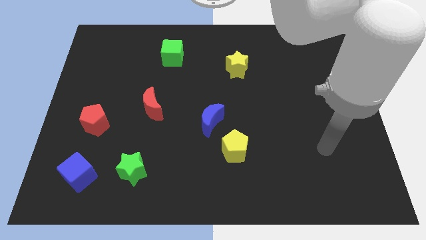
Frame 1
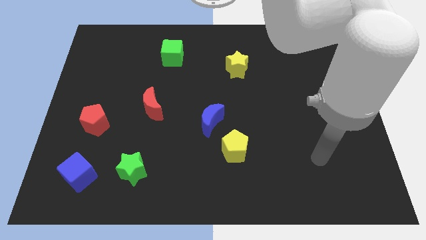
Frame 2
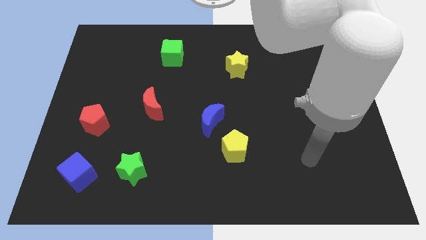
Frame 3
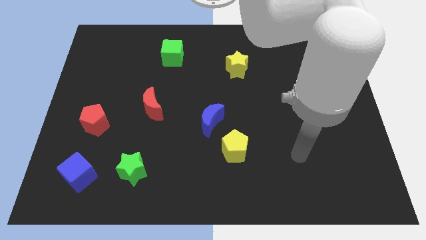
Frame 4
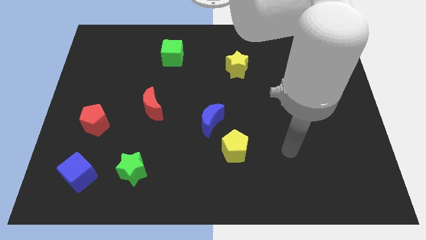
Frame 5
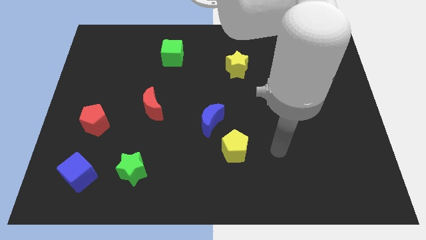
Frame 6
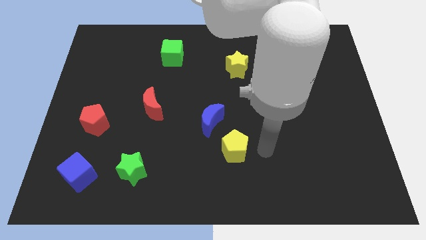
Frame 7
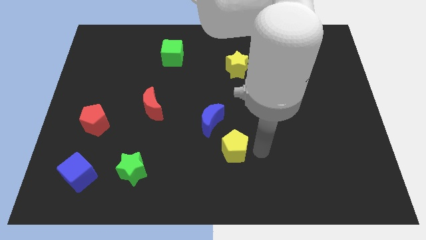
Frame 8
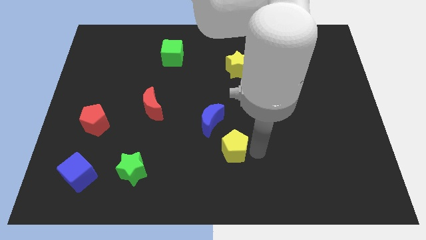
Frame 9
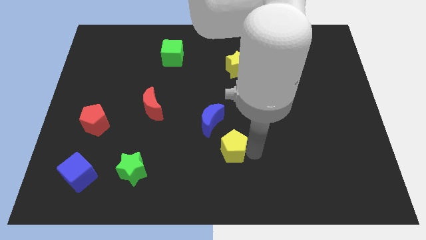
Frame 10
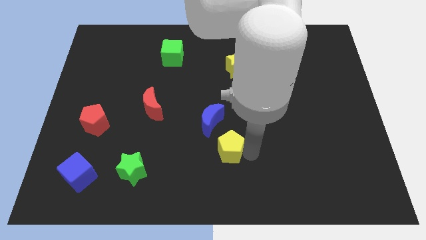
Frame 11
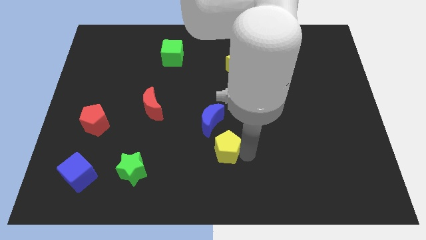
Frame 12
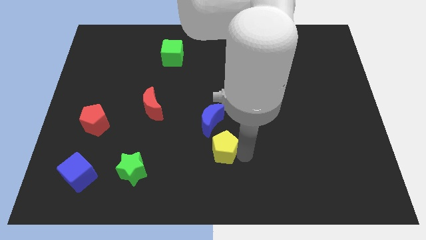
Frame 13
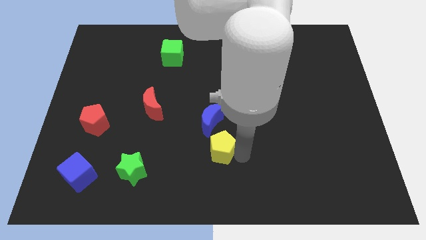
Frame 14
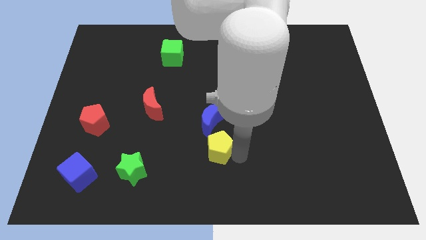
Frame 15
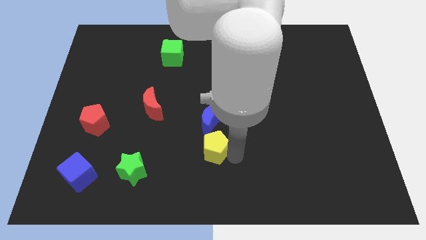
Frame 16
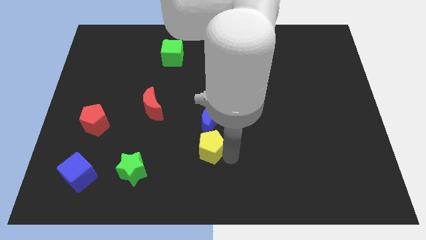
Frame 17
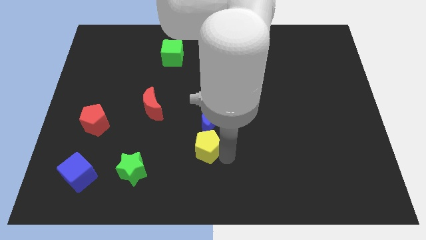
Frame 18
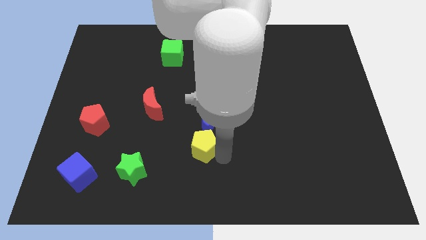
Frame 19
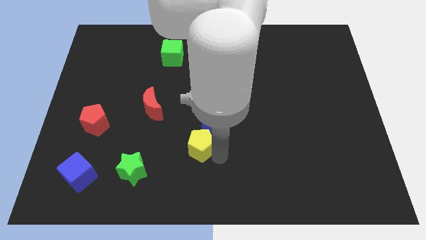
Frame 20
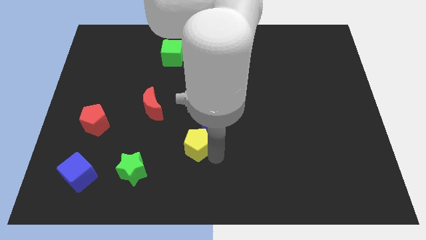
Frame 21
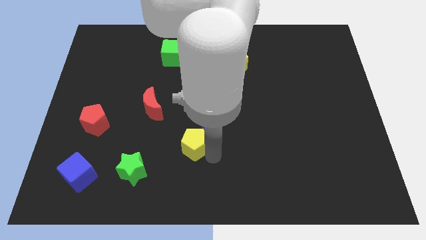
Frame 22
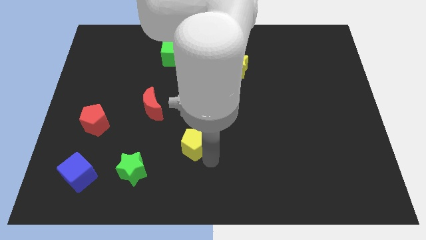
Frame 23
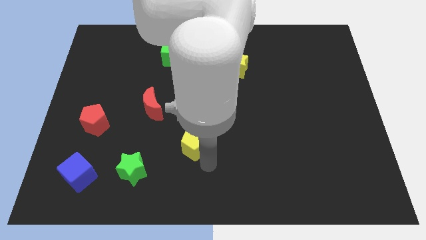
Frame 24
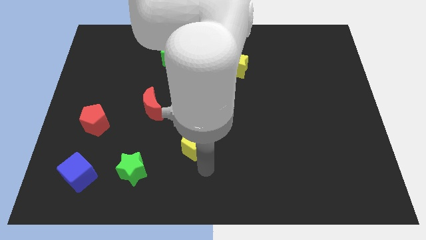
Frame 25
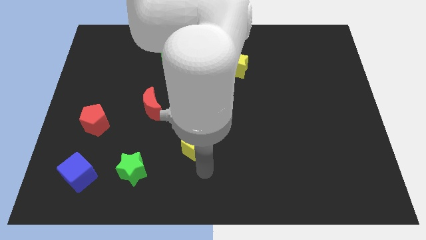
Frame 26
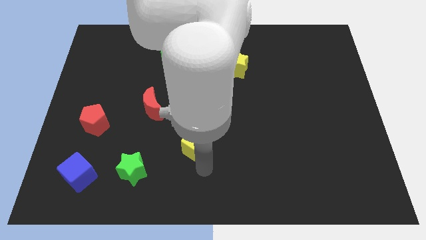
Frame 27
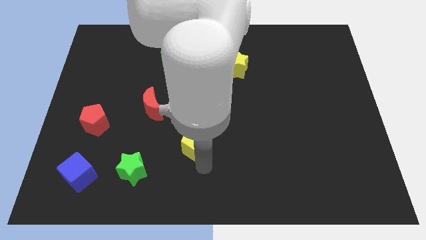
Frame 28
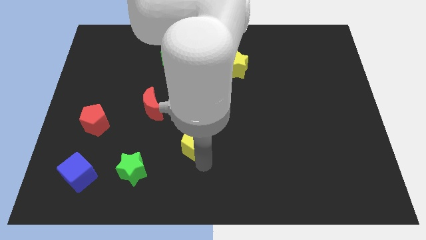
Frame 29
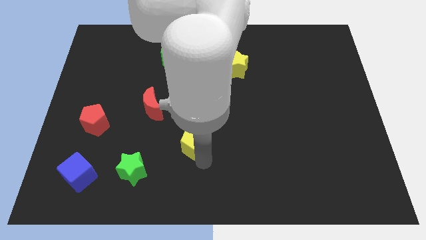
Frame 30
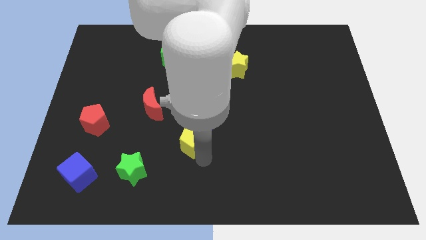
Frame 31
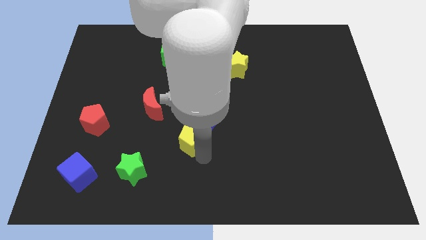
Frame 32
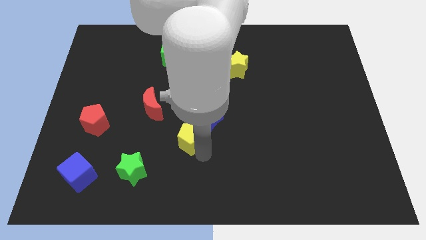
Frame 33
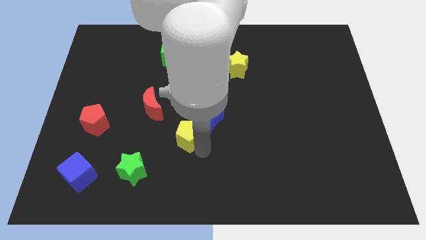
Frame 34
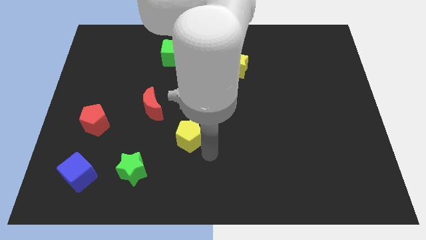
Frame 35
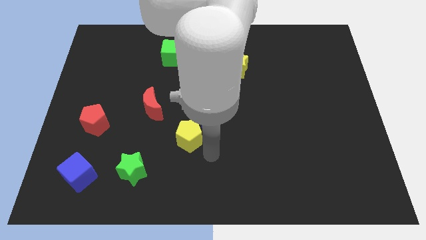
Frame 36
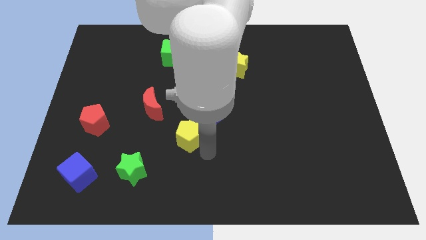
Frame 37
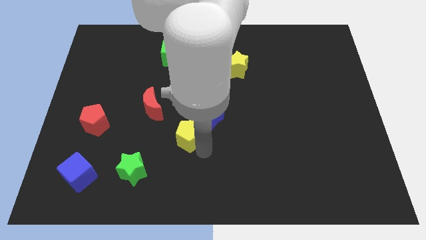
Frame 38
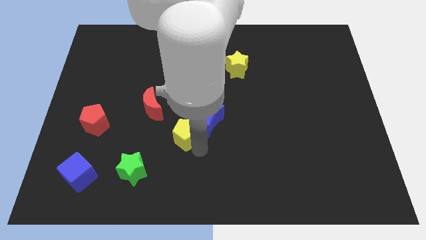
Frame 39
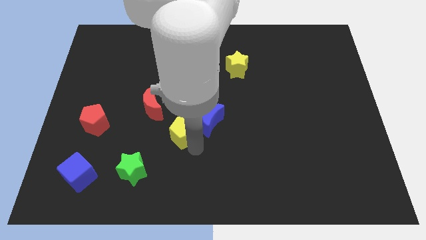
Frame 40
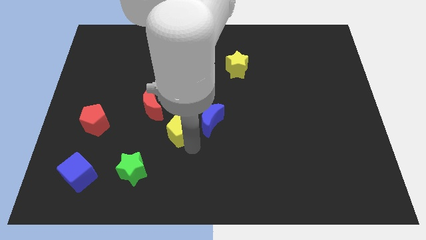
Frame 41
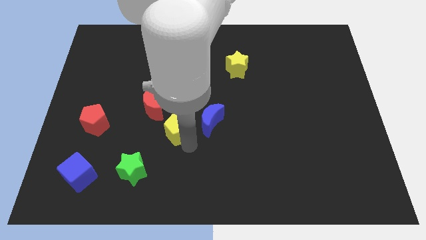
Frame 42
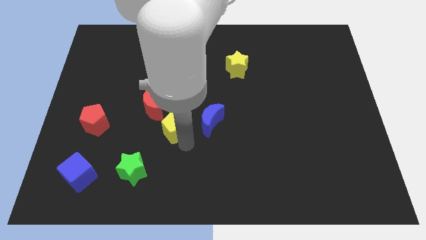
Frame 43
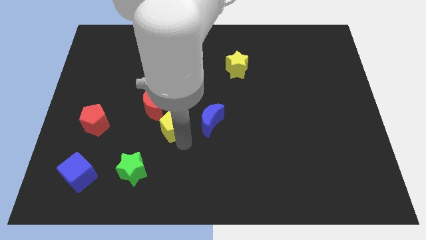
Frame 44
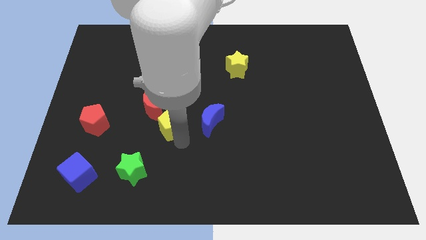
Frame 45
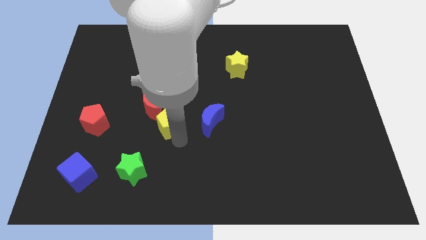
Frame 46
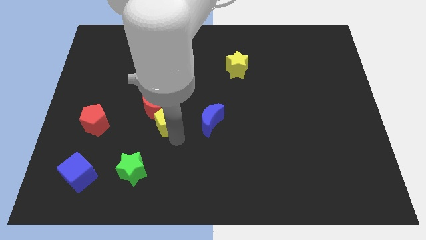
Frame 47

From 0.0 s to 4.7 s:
push the yellow pentagon next to the red moon

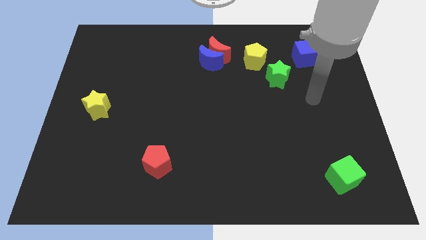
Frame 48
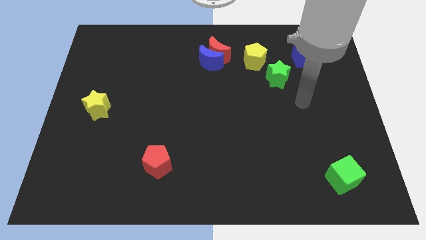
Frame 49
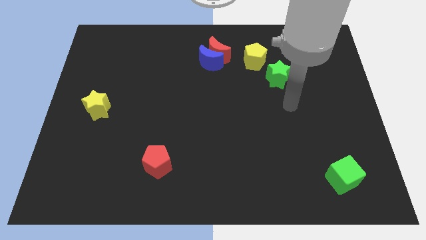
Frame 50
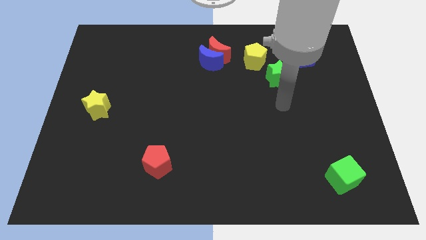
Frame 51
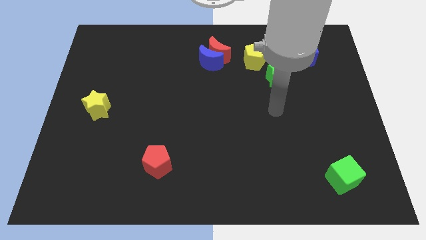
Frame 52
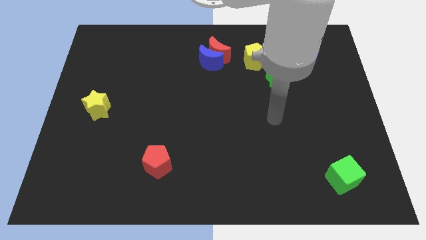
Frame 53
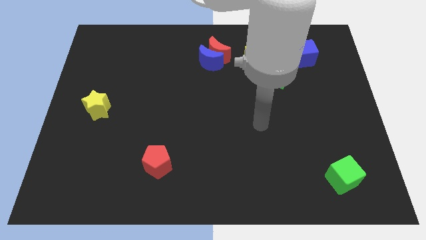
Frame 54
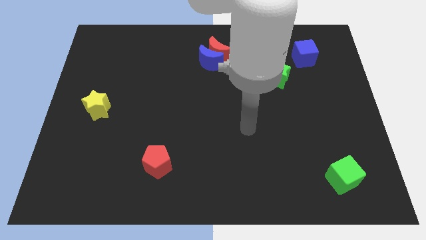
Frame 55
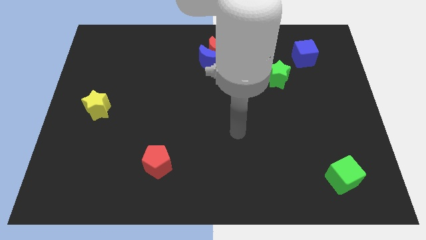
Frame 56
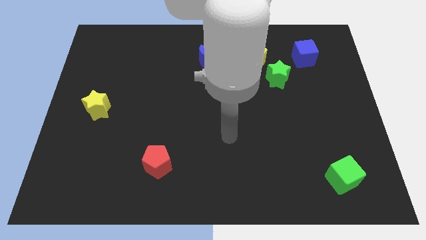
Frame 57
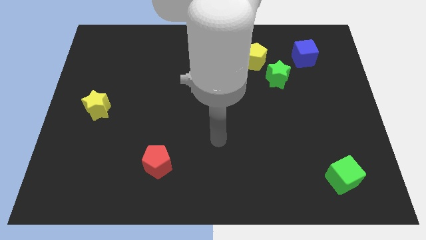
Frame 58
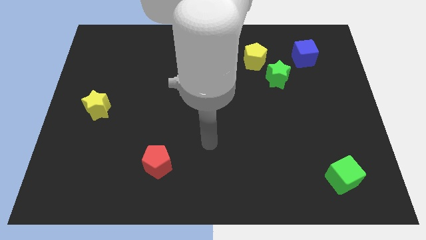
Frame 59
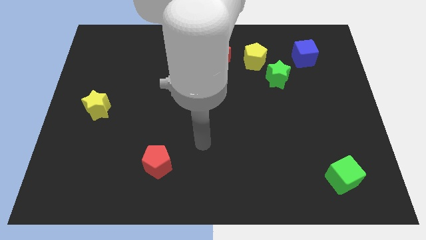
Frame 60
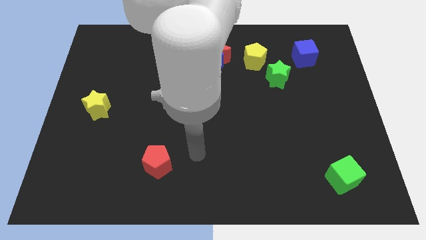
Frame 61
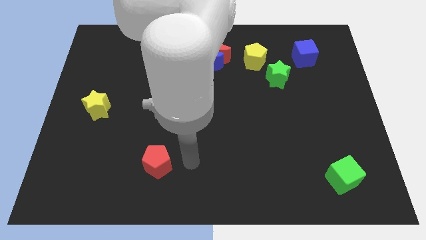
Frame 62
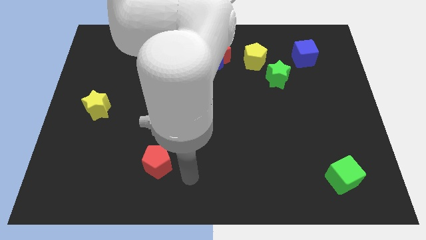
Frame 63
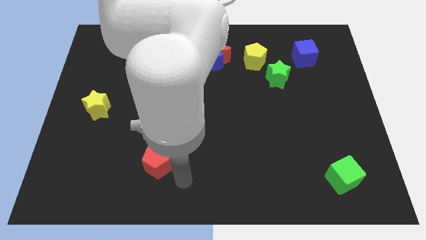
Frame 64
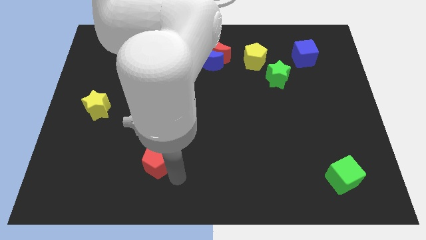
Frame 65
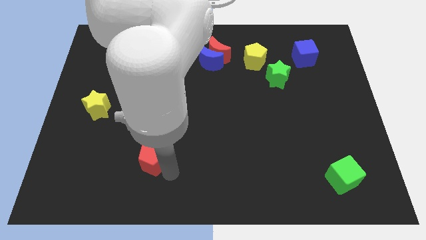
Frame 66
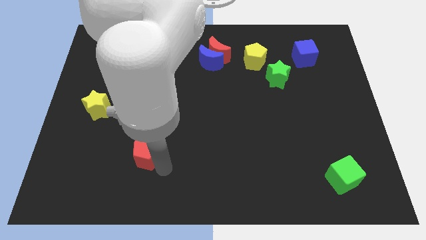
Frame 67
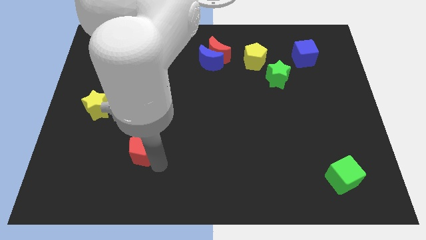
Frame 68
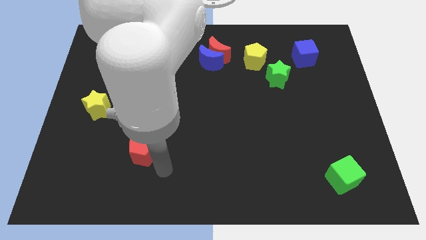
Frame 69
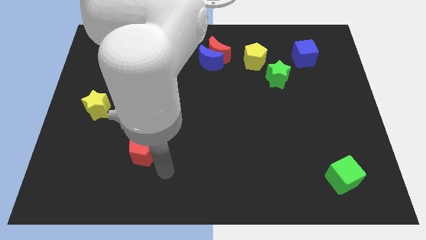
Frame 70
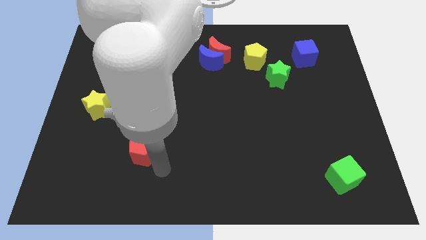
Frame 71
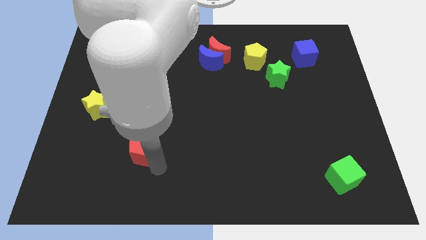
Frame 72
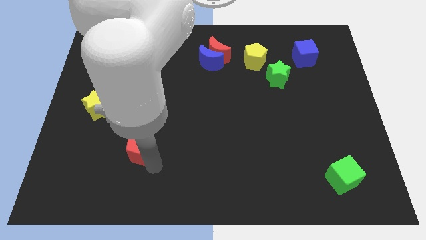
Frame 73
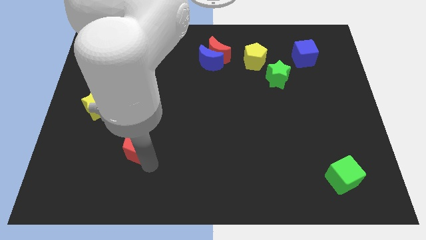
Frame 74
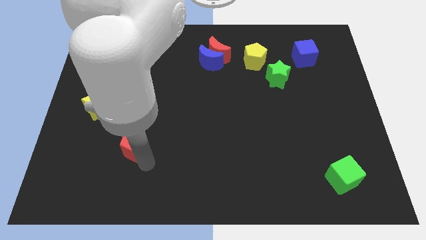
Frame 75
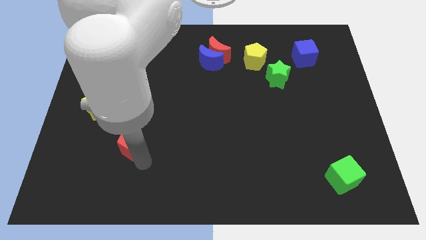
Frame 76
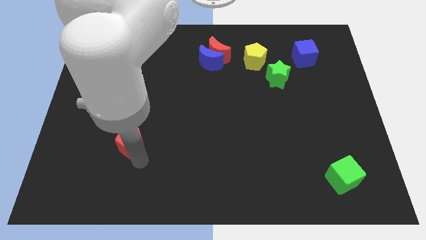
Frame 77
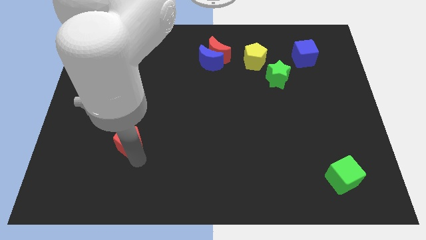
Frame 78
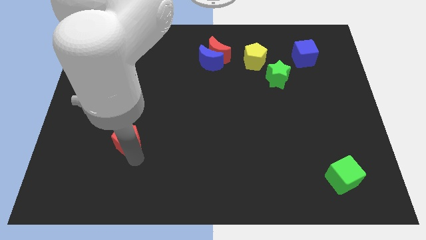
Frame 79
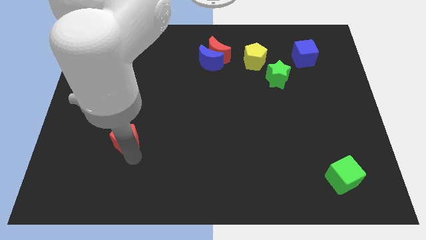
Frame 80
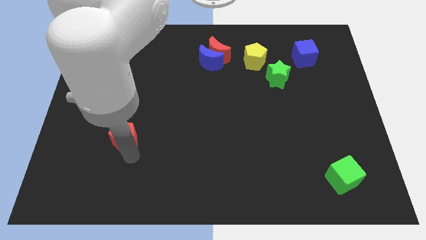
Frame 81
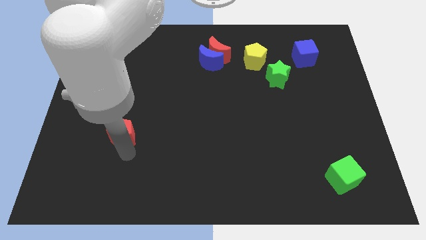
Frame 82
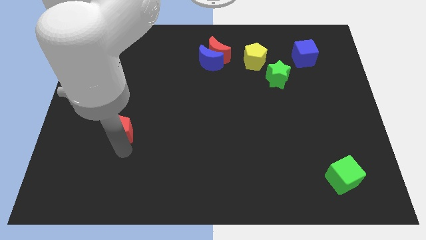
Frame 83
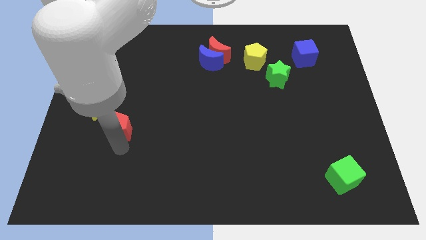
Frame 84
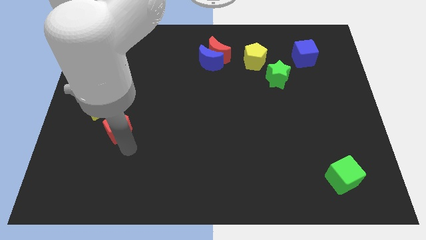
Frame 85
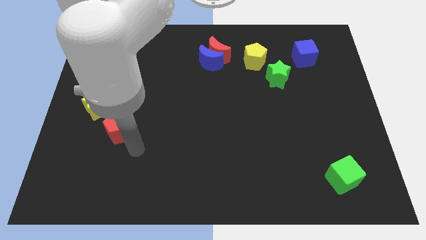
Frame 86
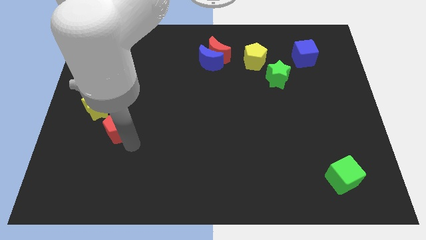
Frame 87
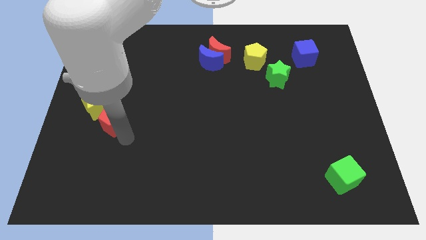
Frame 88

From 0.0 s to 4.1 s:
push the red pentagon close to the yellow star
